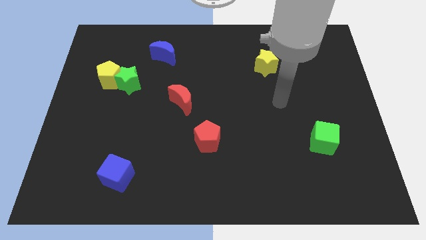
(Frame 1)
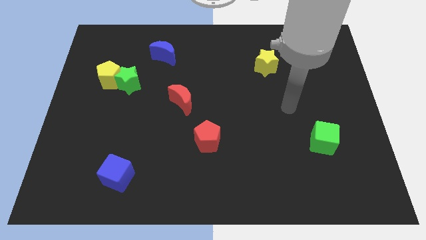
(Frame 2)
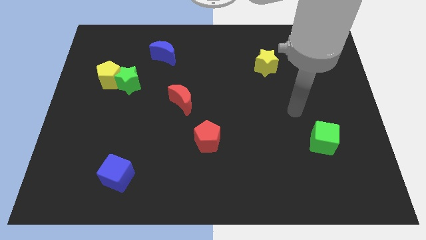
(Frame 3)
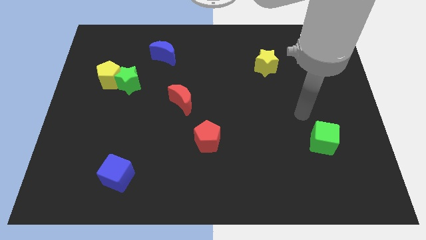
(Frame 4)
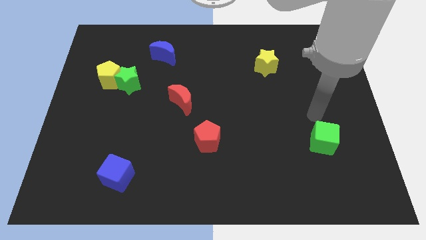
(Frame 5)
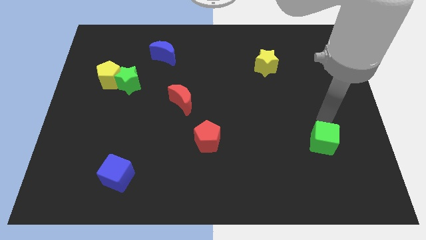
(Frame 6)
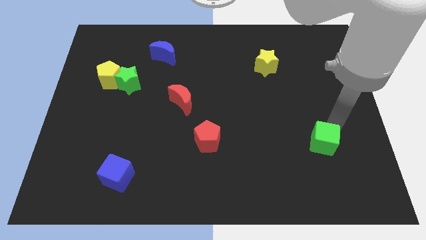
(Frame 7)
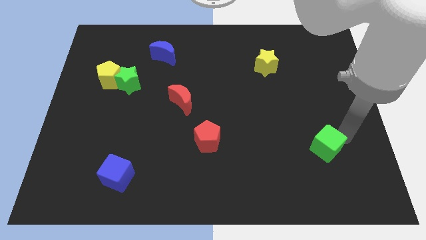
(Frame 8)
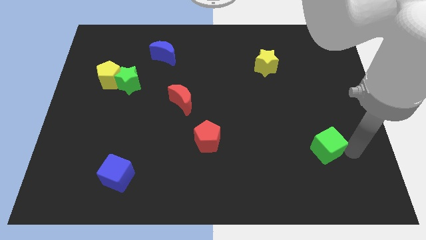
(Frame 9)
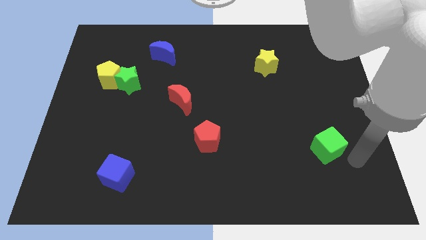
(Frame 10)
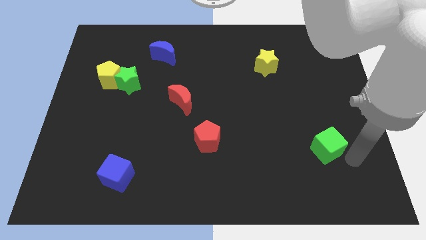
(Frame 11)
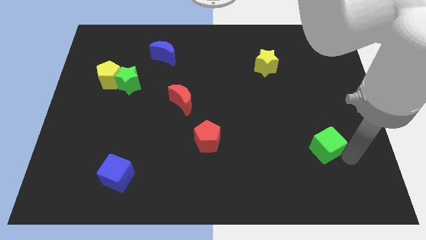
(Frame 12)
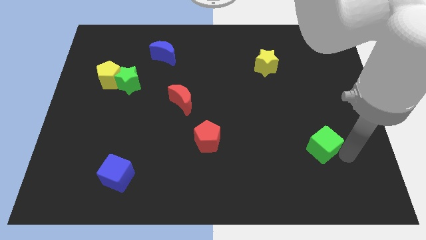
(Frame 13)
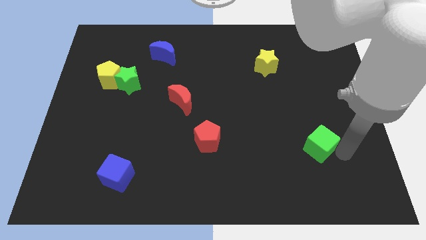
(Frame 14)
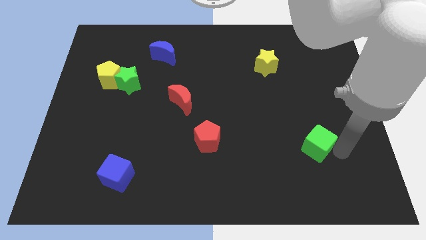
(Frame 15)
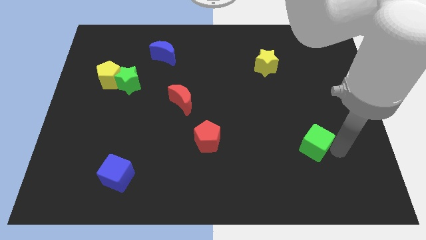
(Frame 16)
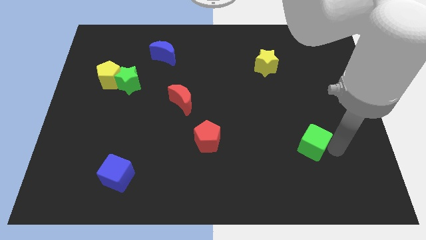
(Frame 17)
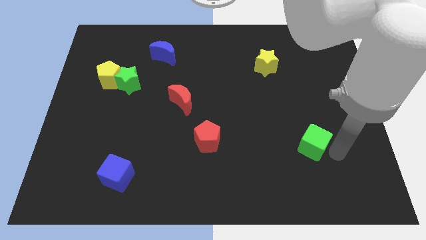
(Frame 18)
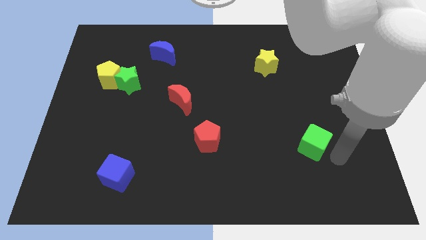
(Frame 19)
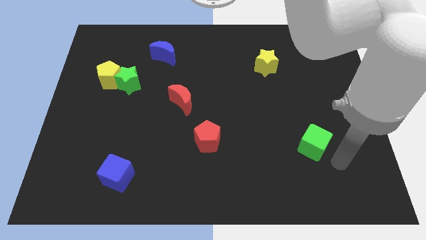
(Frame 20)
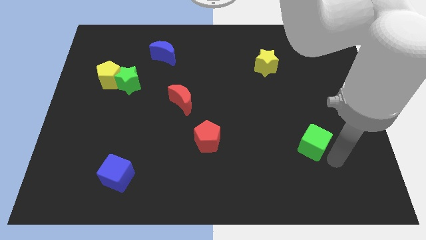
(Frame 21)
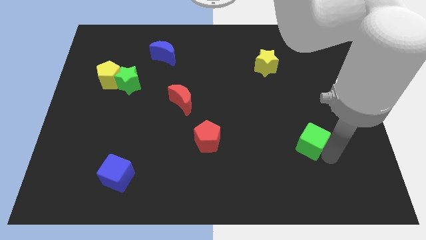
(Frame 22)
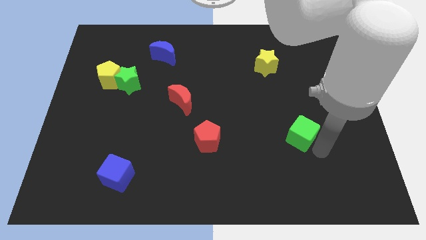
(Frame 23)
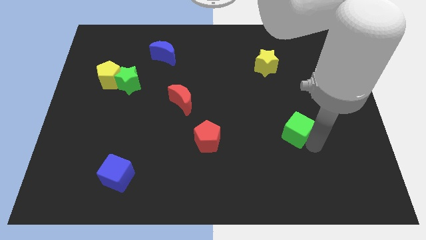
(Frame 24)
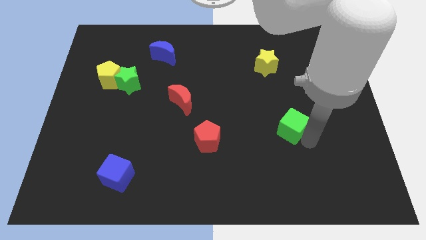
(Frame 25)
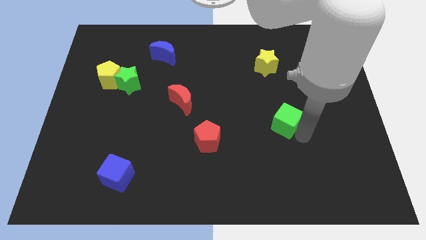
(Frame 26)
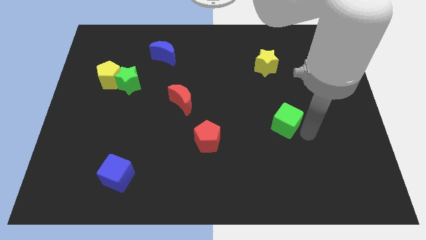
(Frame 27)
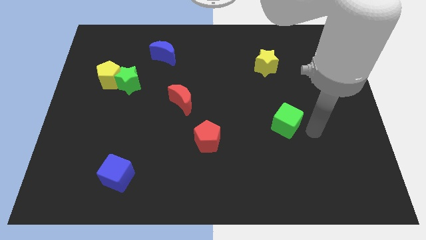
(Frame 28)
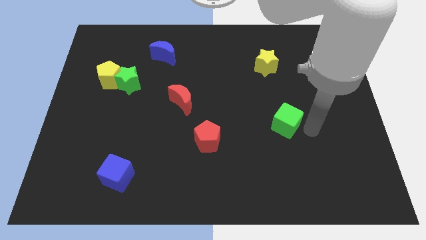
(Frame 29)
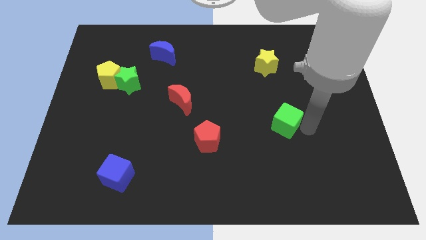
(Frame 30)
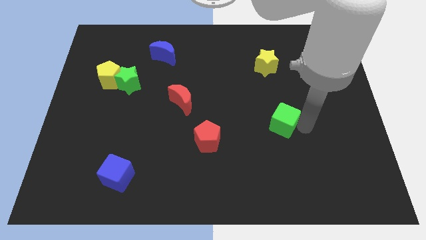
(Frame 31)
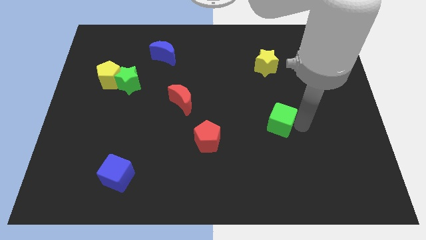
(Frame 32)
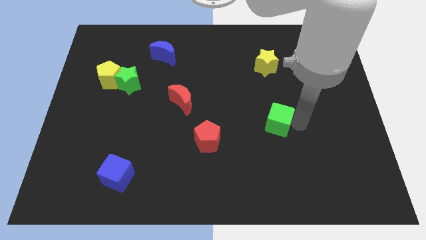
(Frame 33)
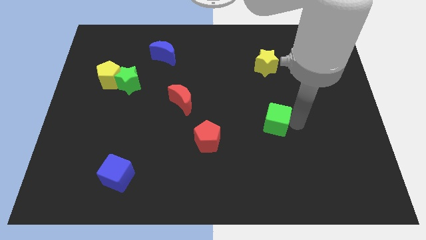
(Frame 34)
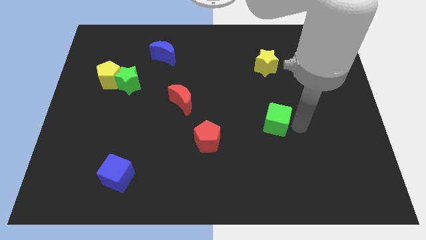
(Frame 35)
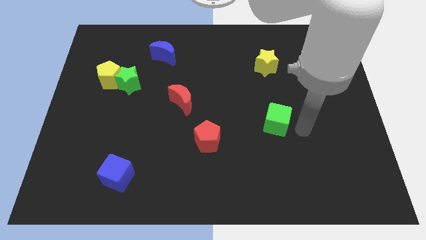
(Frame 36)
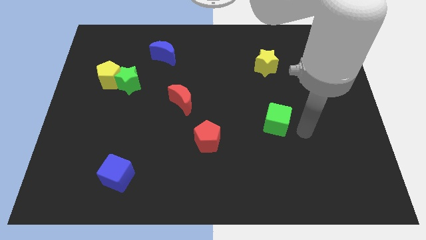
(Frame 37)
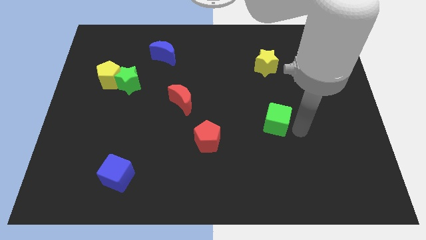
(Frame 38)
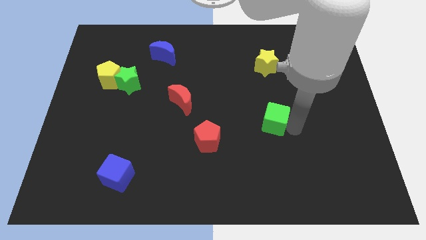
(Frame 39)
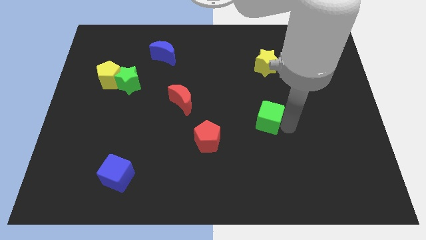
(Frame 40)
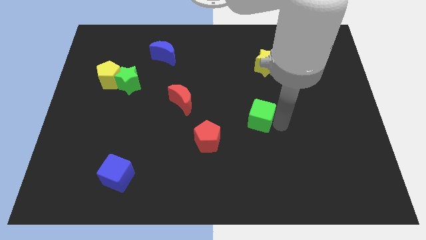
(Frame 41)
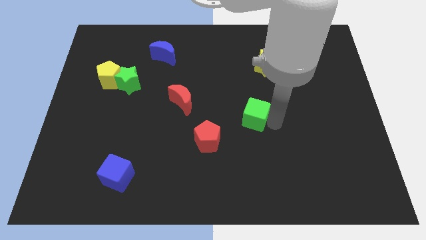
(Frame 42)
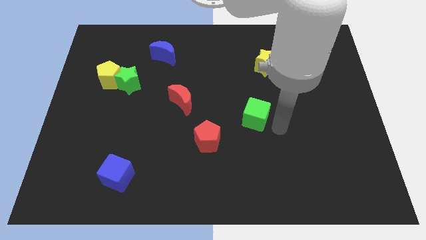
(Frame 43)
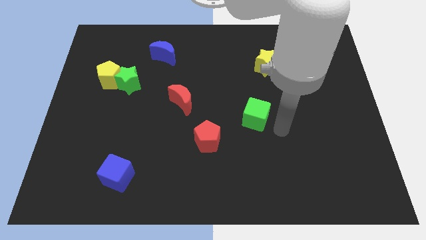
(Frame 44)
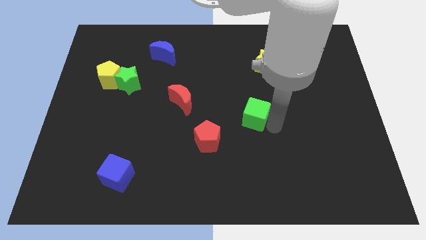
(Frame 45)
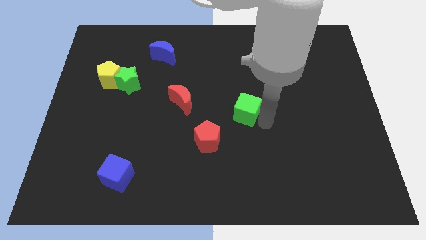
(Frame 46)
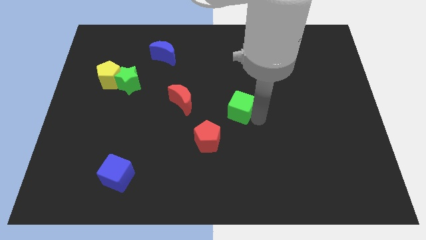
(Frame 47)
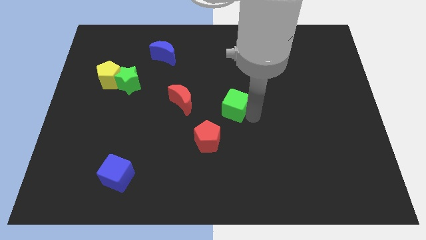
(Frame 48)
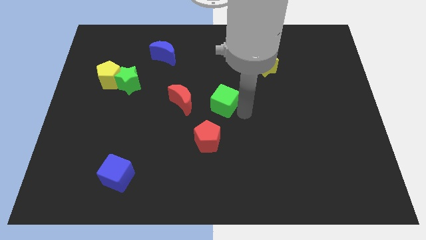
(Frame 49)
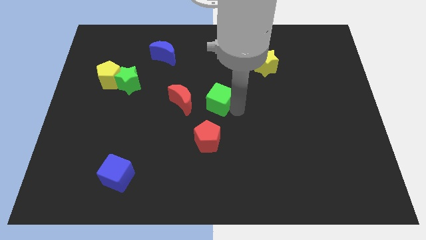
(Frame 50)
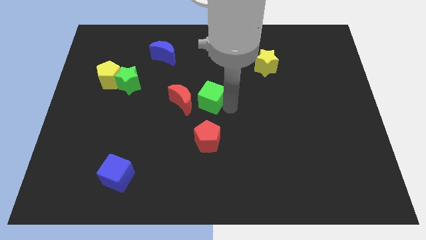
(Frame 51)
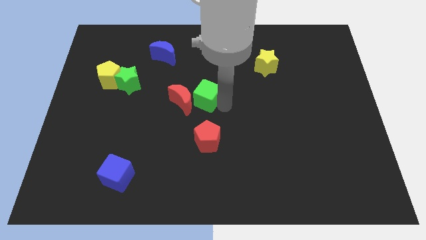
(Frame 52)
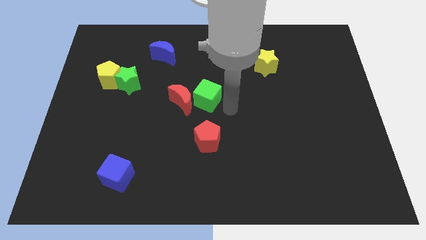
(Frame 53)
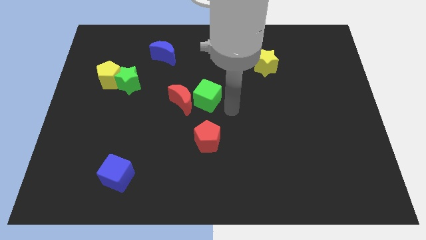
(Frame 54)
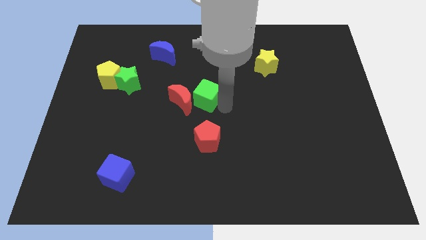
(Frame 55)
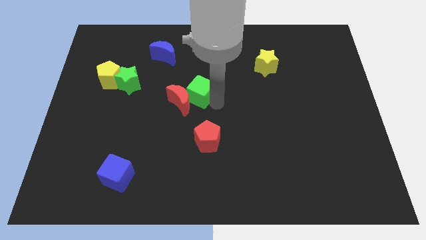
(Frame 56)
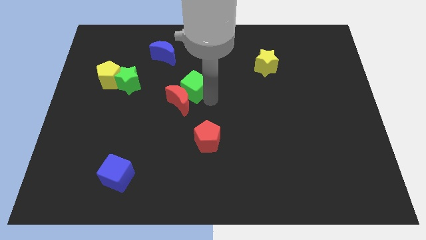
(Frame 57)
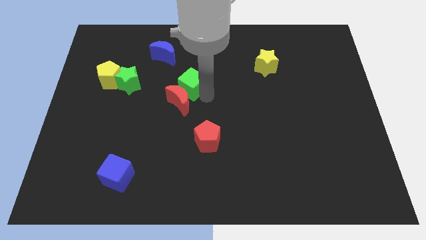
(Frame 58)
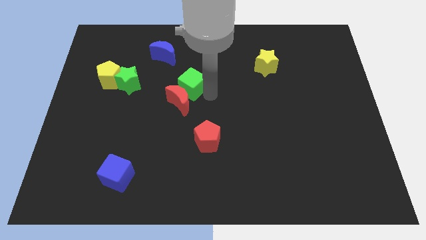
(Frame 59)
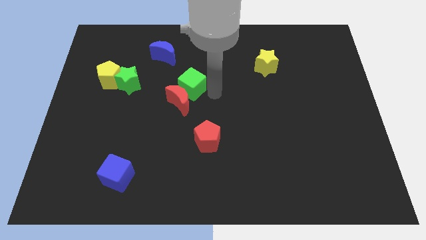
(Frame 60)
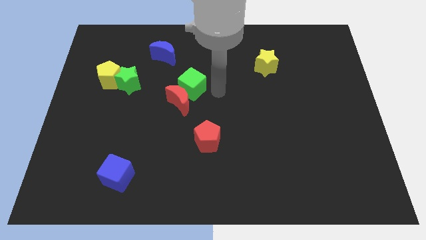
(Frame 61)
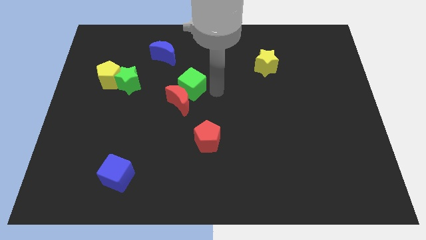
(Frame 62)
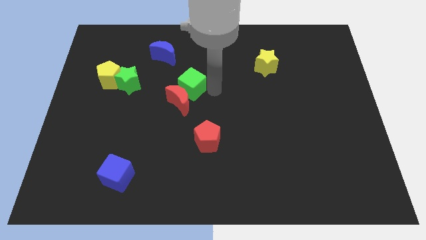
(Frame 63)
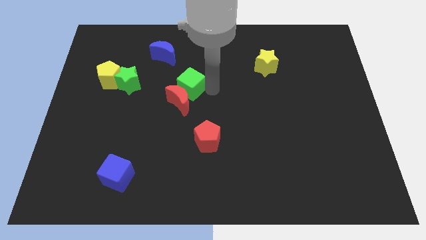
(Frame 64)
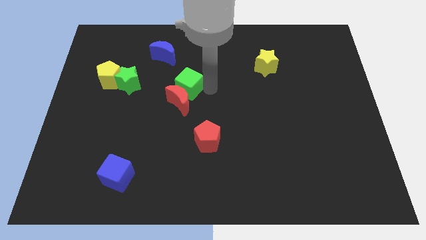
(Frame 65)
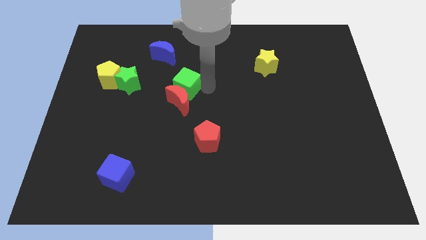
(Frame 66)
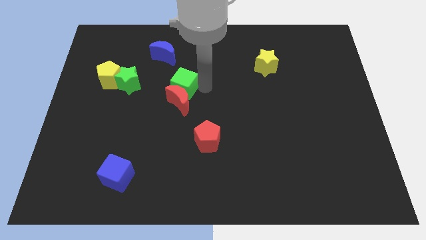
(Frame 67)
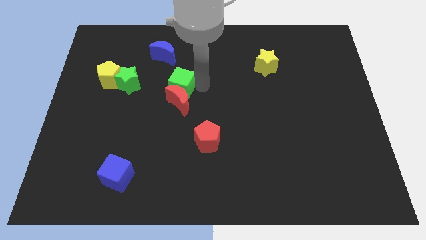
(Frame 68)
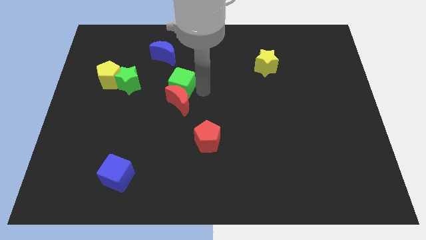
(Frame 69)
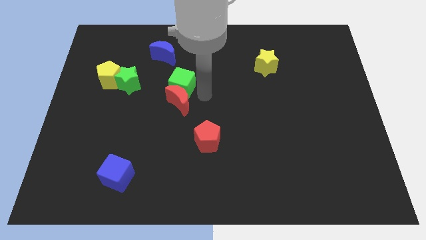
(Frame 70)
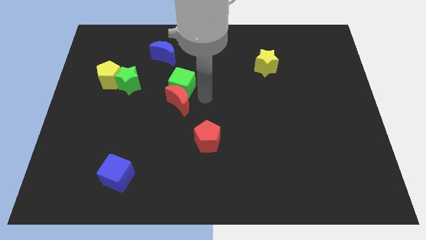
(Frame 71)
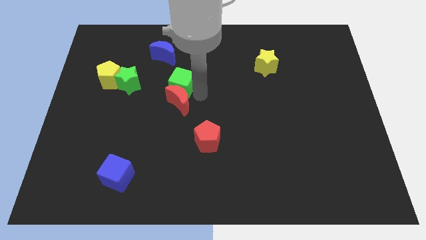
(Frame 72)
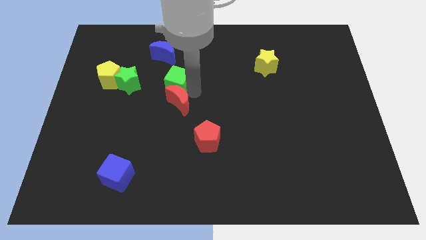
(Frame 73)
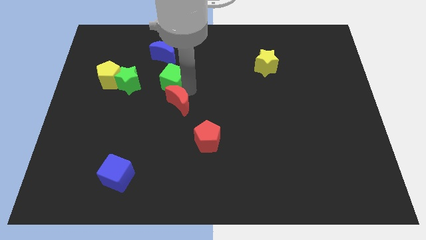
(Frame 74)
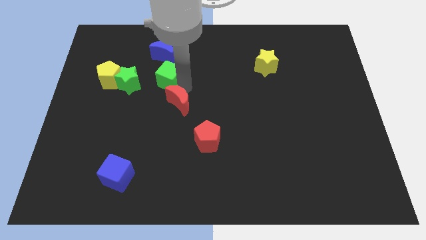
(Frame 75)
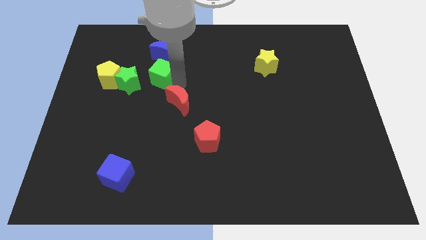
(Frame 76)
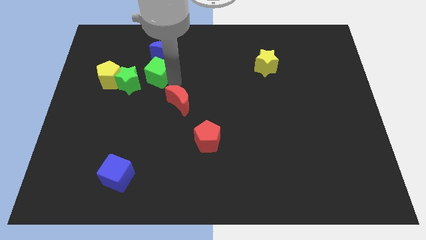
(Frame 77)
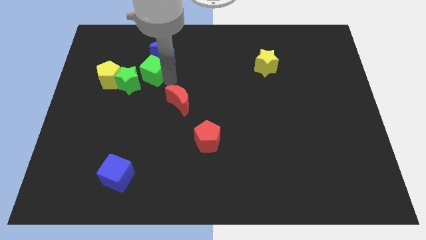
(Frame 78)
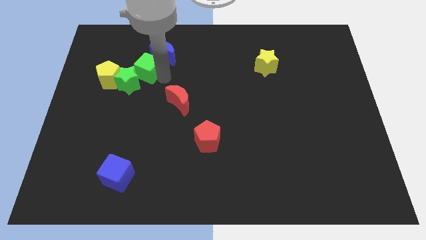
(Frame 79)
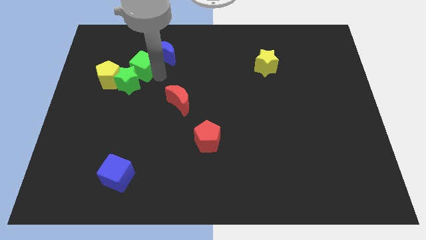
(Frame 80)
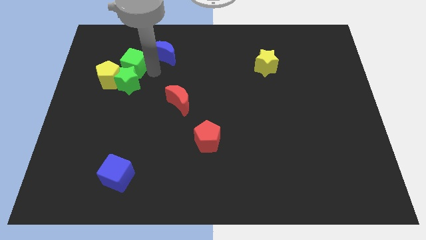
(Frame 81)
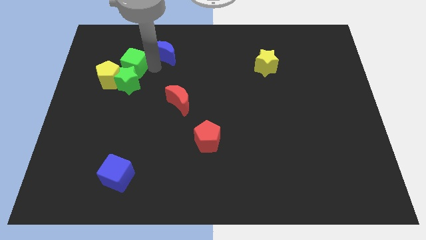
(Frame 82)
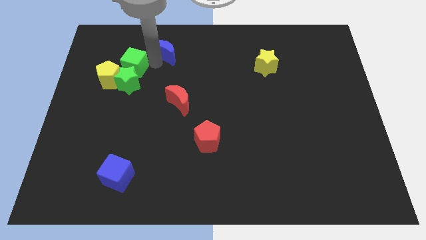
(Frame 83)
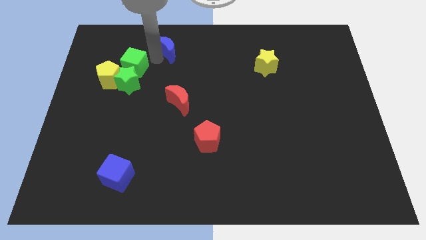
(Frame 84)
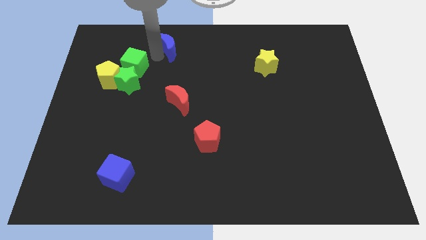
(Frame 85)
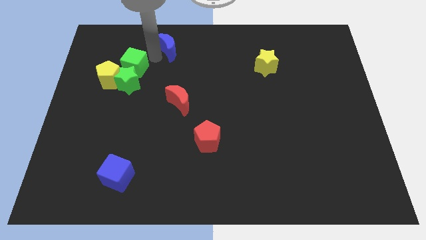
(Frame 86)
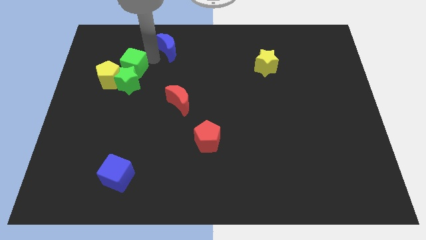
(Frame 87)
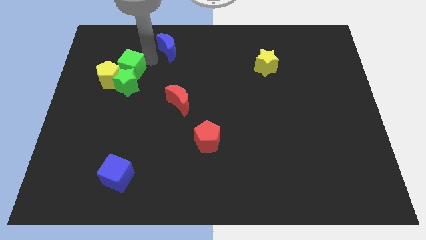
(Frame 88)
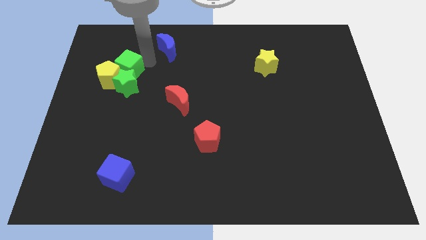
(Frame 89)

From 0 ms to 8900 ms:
put the green cube next to the yellow pentagon
